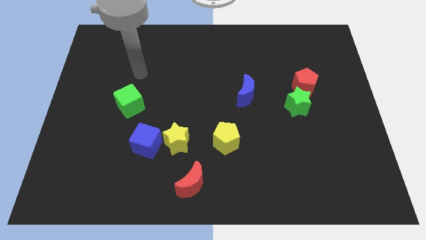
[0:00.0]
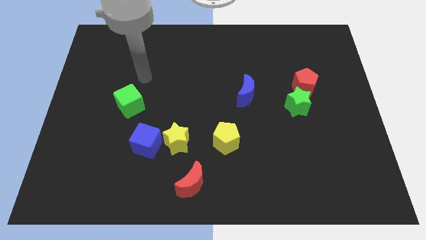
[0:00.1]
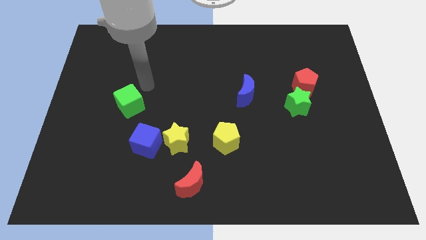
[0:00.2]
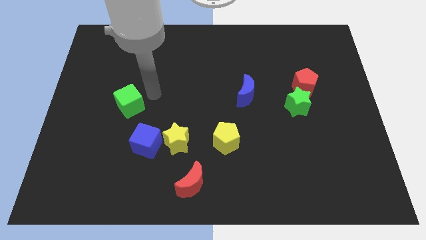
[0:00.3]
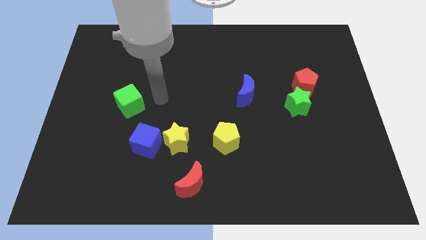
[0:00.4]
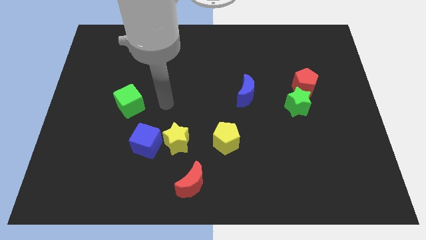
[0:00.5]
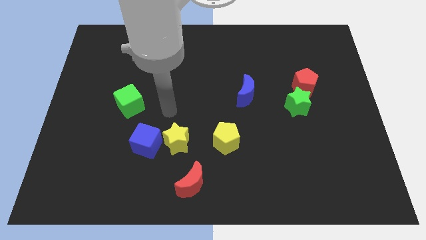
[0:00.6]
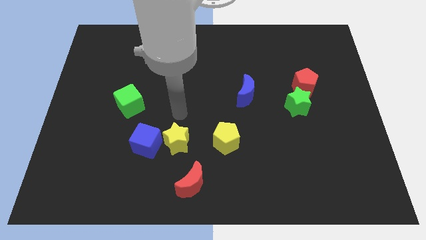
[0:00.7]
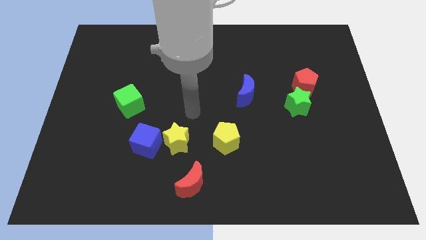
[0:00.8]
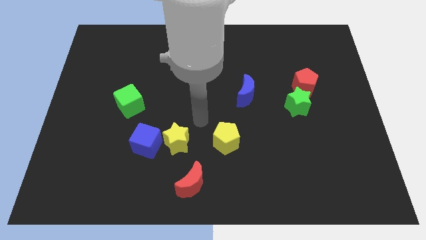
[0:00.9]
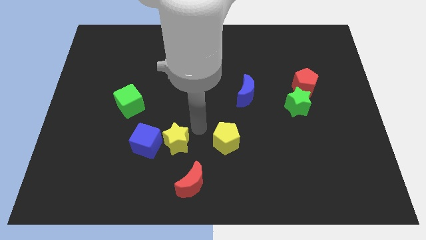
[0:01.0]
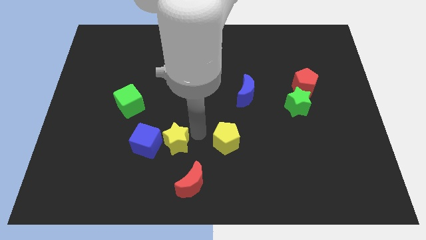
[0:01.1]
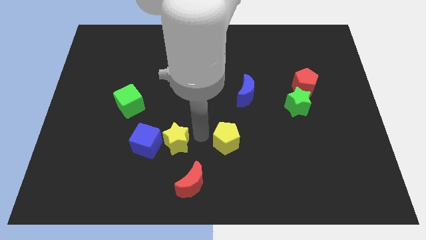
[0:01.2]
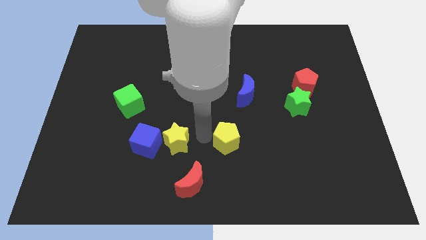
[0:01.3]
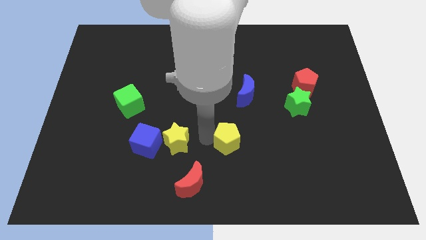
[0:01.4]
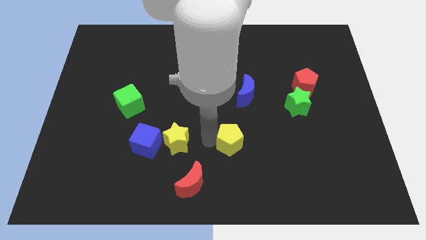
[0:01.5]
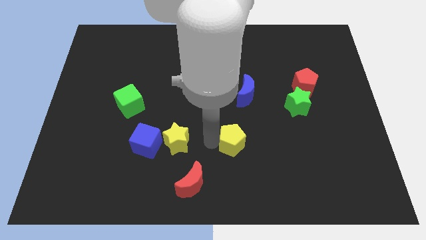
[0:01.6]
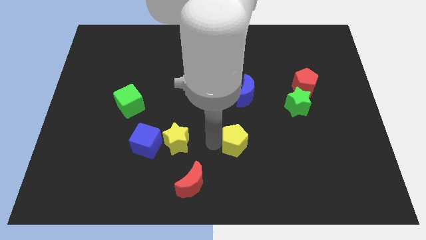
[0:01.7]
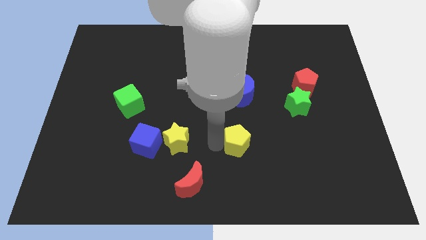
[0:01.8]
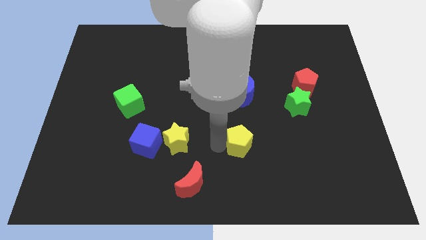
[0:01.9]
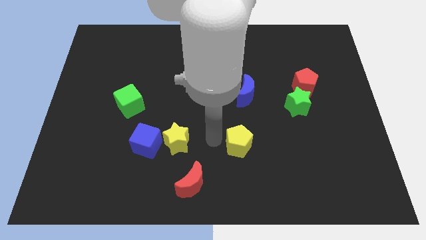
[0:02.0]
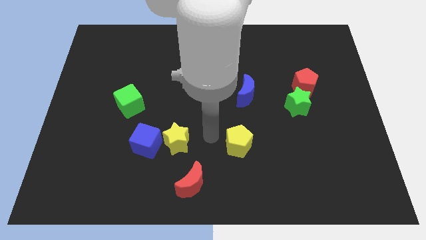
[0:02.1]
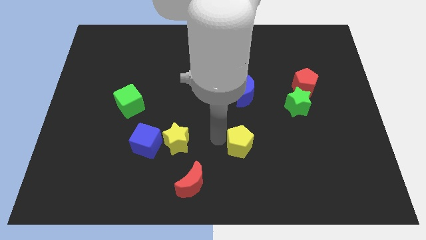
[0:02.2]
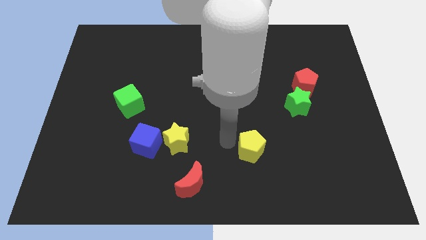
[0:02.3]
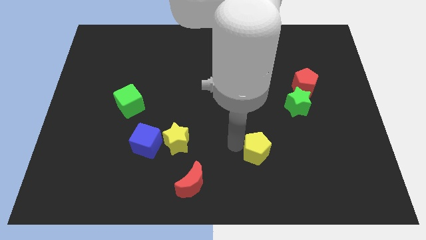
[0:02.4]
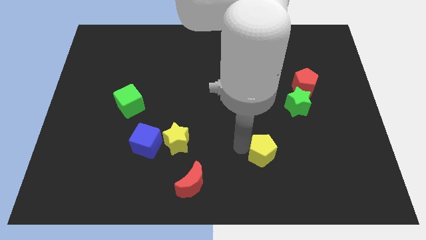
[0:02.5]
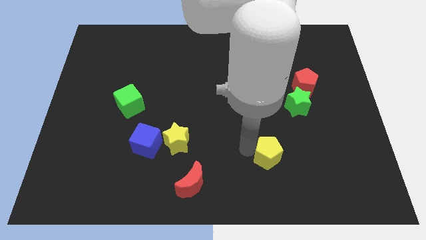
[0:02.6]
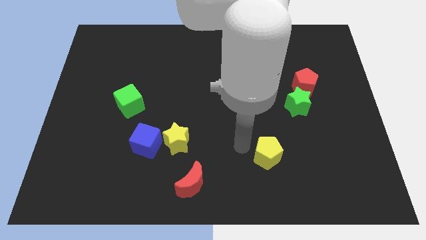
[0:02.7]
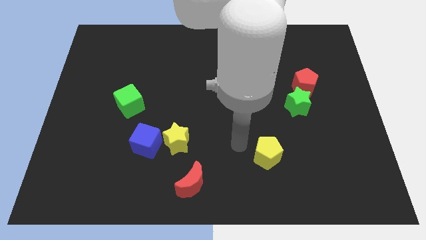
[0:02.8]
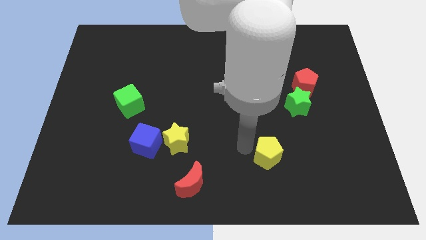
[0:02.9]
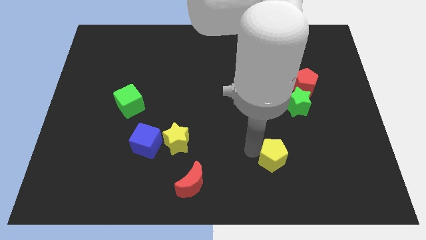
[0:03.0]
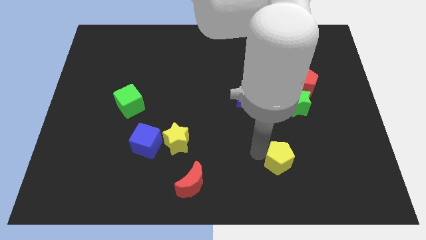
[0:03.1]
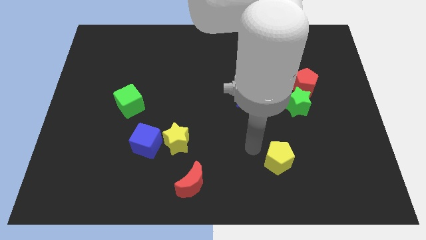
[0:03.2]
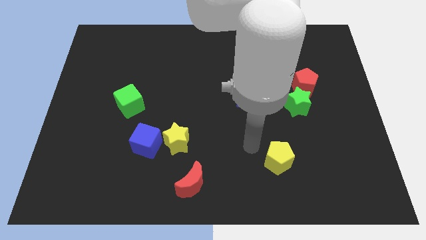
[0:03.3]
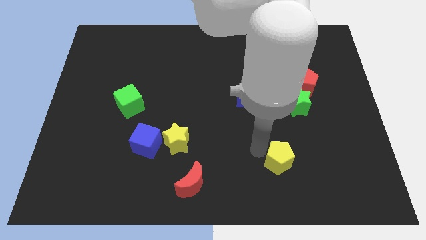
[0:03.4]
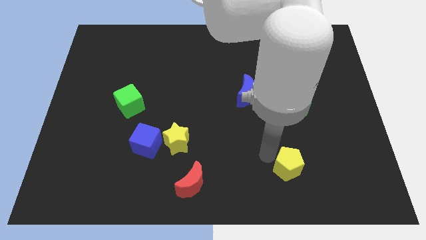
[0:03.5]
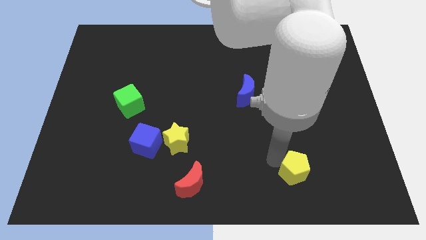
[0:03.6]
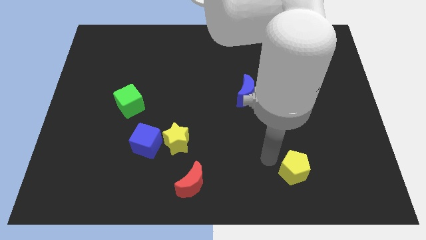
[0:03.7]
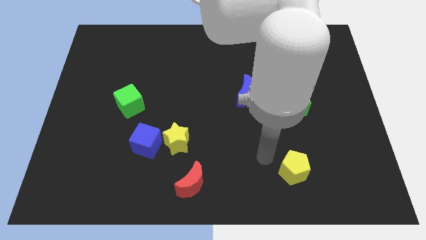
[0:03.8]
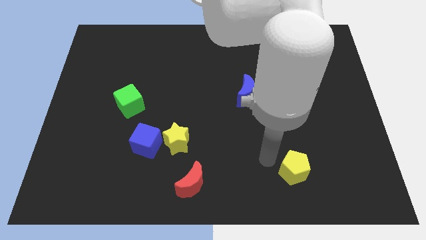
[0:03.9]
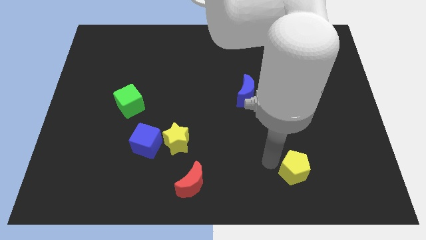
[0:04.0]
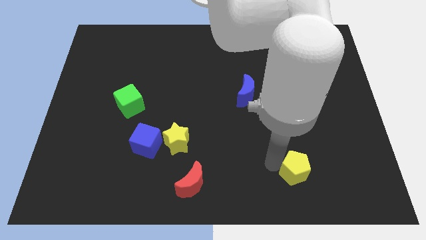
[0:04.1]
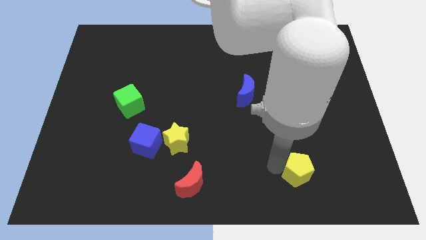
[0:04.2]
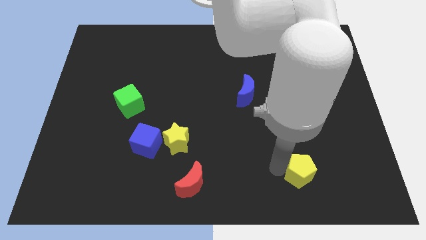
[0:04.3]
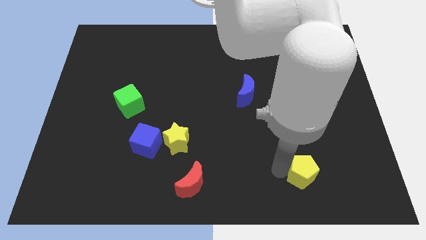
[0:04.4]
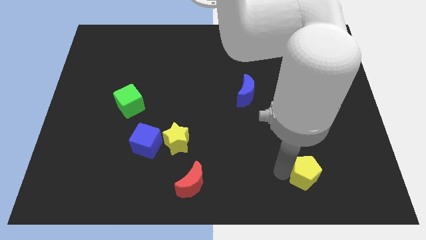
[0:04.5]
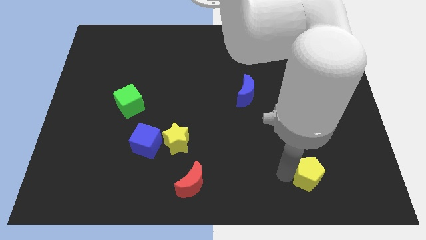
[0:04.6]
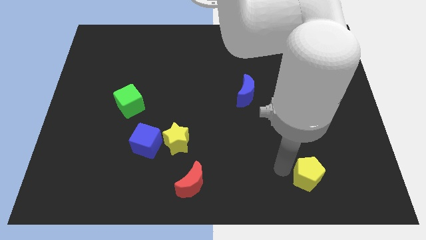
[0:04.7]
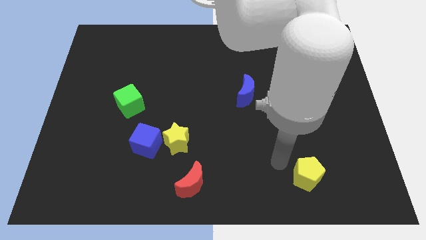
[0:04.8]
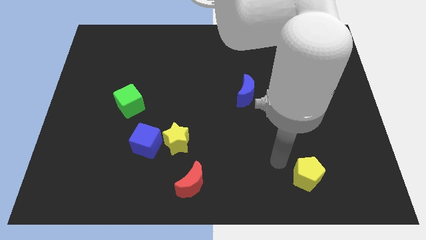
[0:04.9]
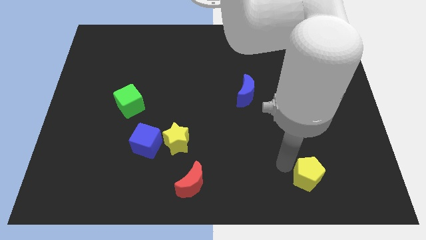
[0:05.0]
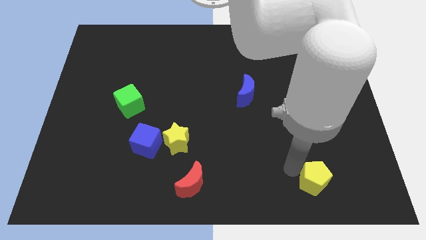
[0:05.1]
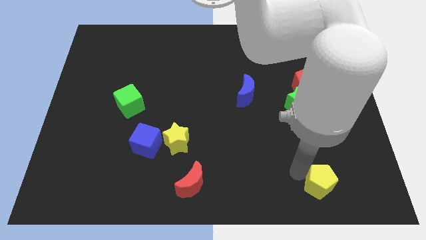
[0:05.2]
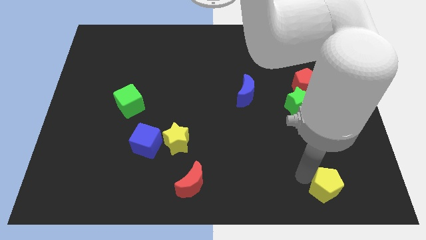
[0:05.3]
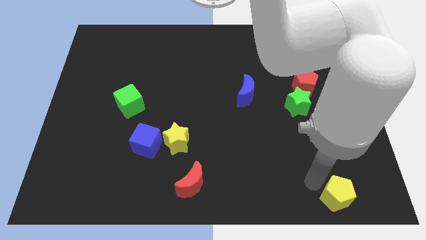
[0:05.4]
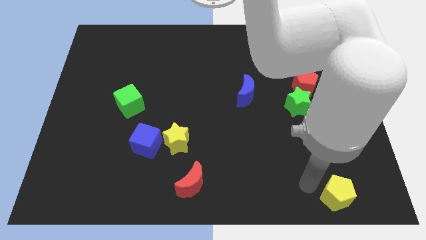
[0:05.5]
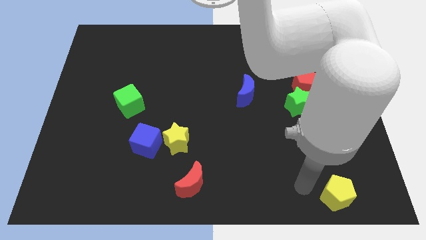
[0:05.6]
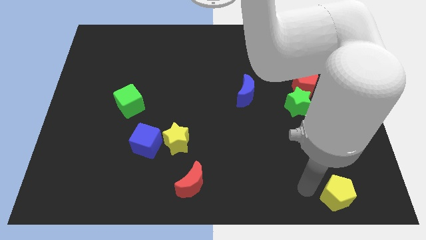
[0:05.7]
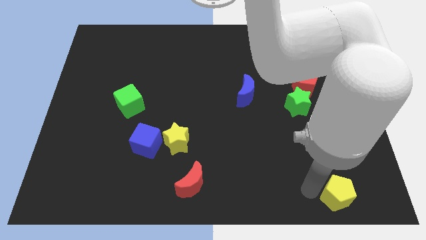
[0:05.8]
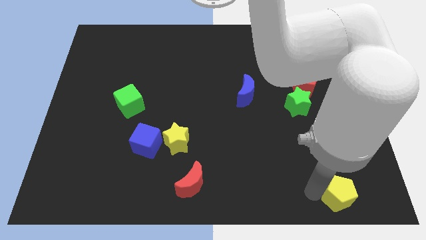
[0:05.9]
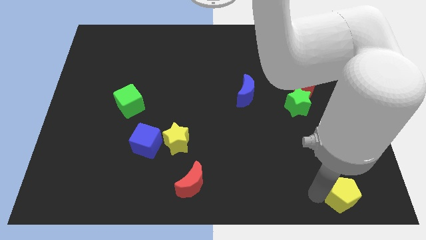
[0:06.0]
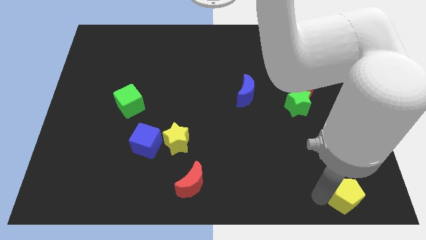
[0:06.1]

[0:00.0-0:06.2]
put the yellow pentagon to the bottom right of the board
